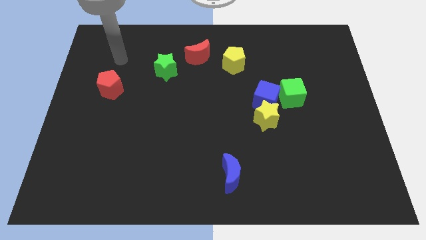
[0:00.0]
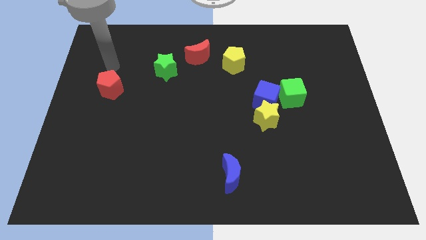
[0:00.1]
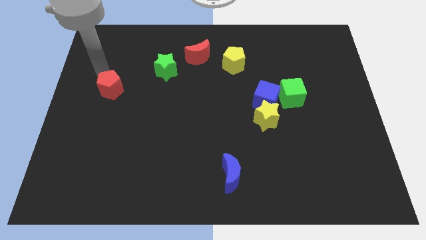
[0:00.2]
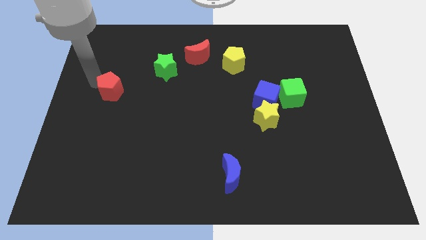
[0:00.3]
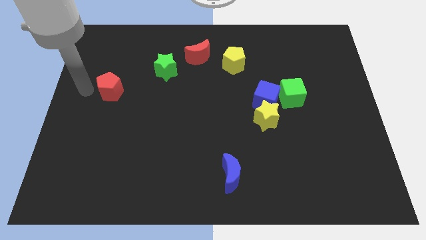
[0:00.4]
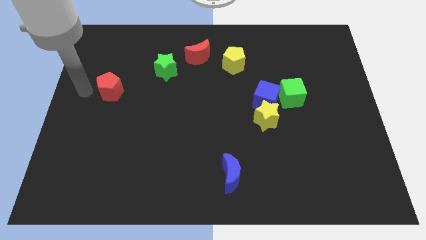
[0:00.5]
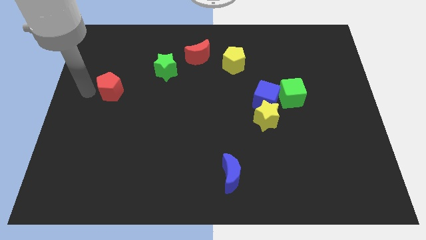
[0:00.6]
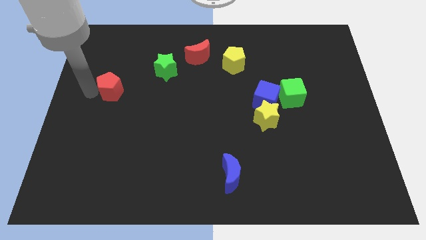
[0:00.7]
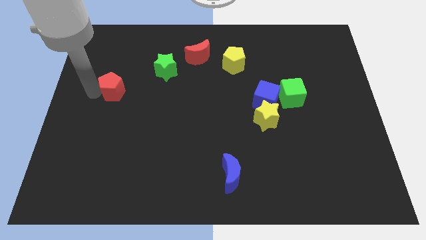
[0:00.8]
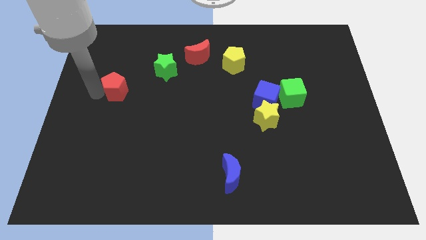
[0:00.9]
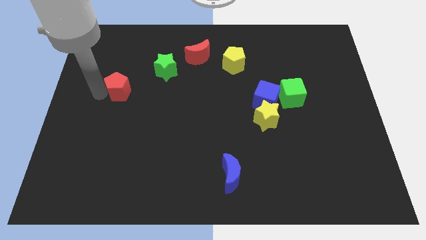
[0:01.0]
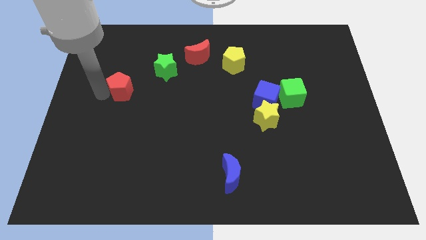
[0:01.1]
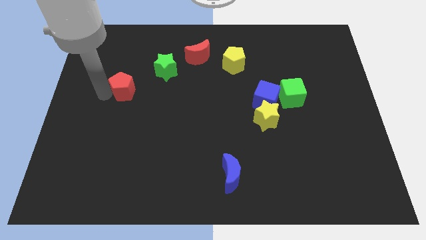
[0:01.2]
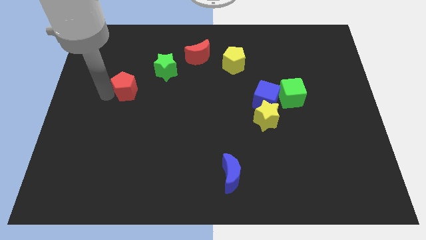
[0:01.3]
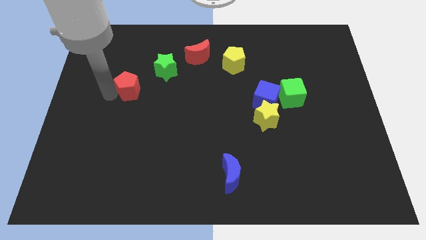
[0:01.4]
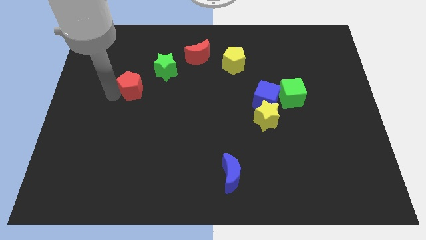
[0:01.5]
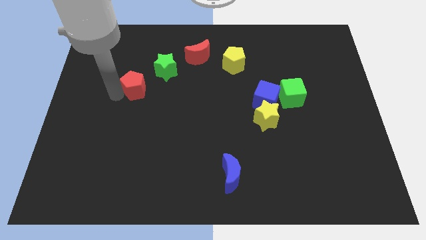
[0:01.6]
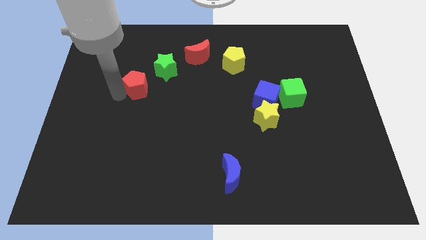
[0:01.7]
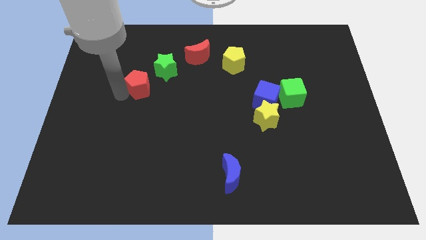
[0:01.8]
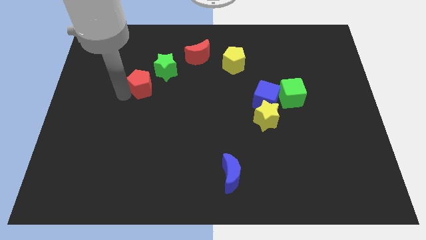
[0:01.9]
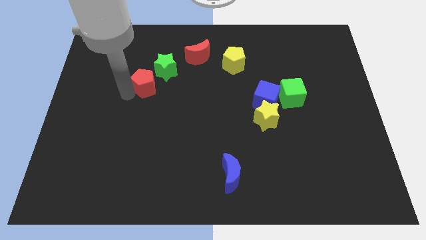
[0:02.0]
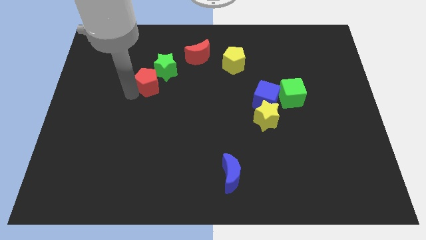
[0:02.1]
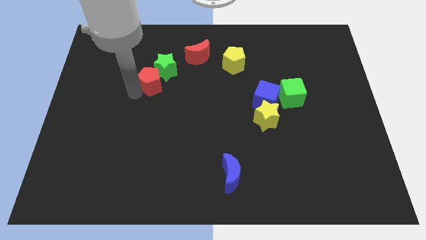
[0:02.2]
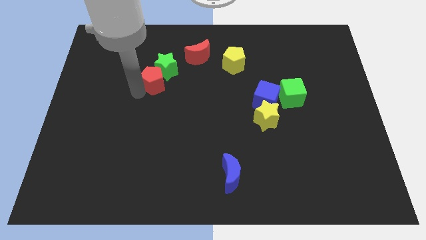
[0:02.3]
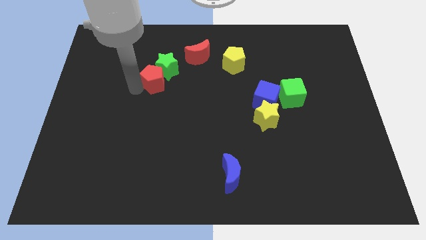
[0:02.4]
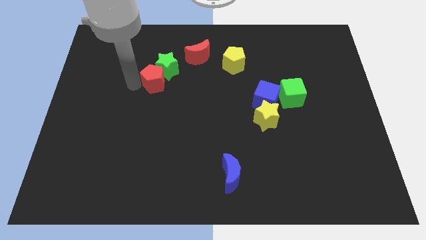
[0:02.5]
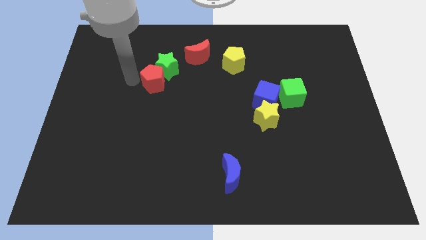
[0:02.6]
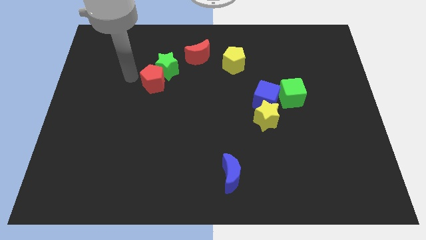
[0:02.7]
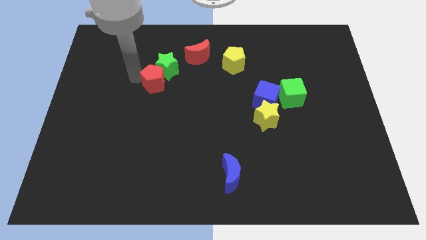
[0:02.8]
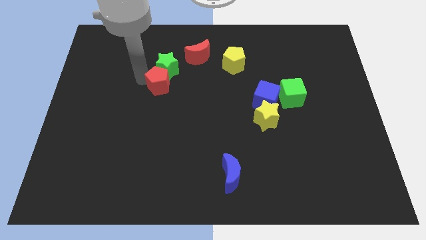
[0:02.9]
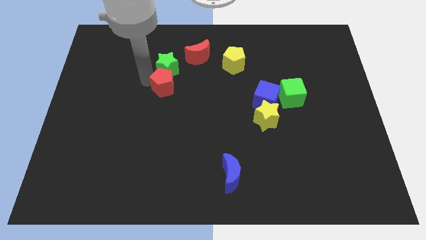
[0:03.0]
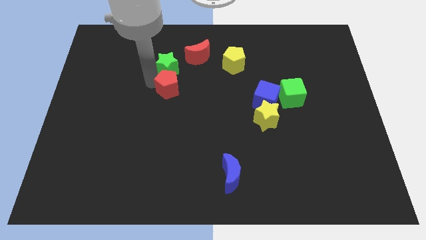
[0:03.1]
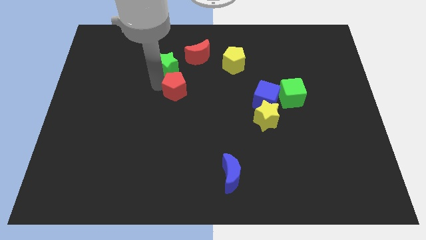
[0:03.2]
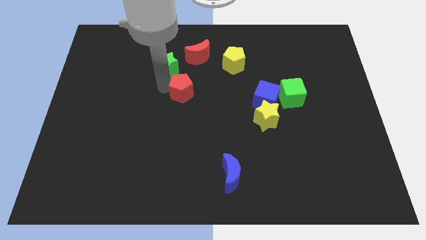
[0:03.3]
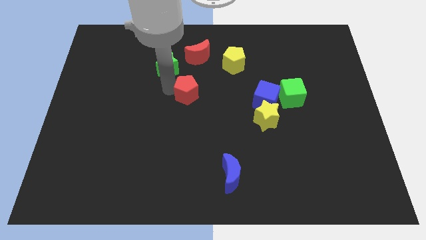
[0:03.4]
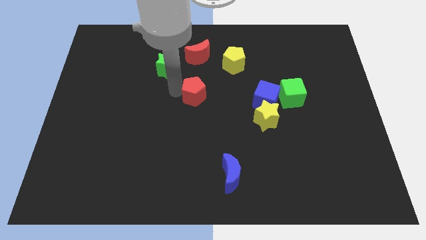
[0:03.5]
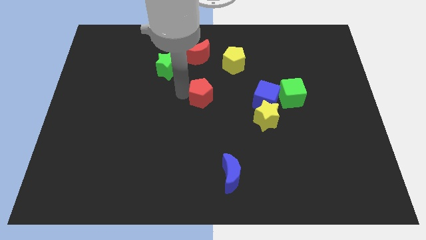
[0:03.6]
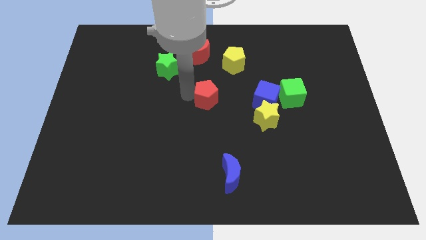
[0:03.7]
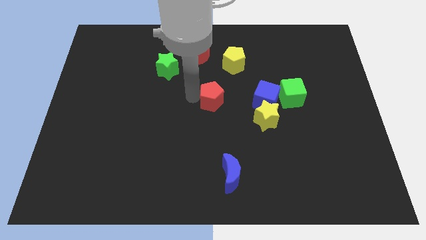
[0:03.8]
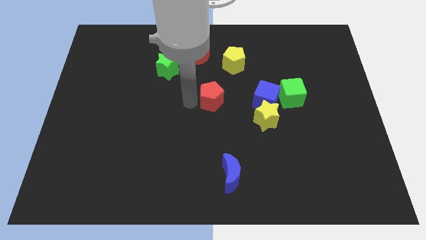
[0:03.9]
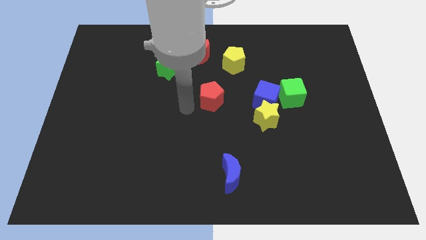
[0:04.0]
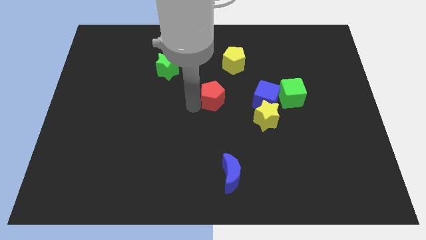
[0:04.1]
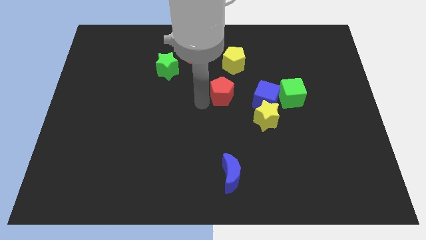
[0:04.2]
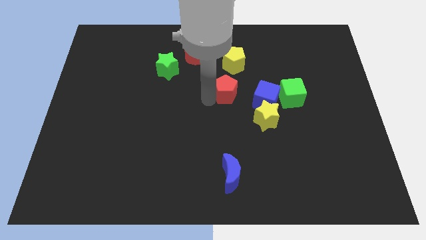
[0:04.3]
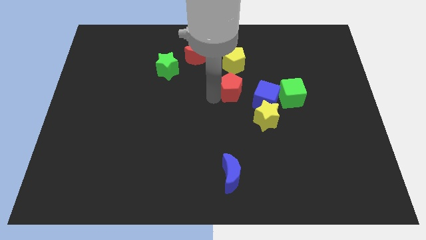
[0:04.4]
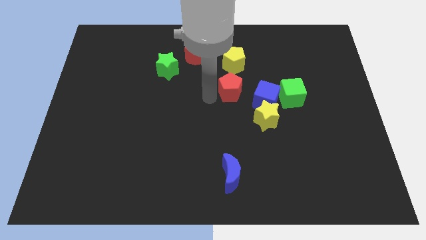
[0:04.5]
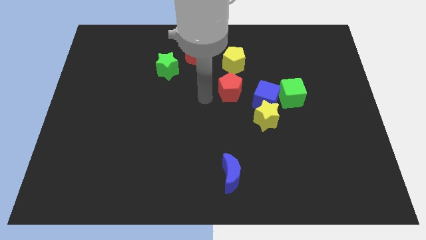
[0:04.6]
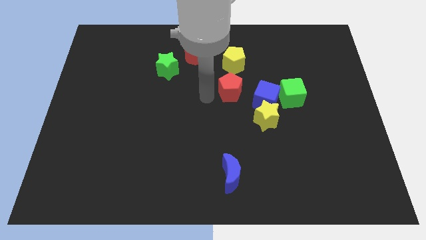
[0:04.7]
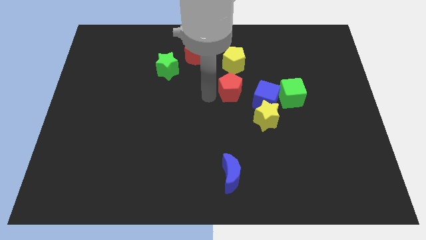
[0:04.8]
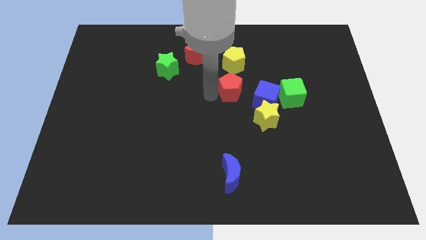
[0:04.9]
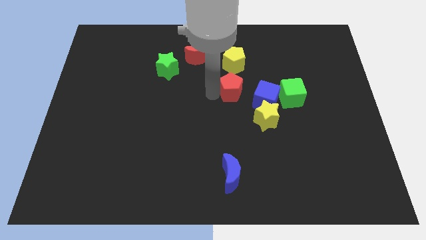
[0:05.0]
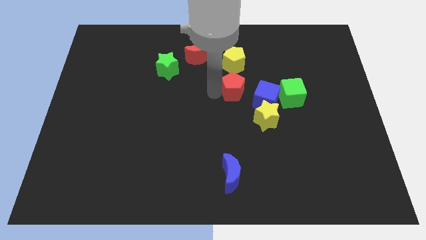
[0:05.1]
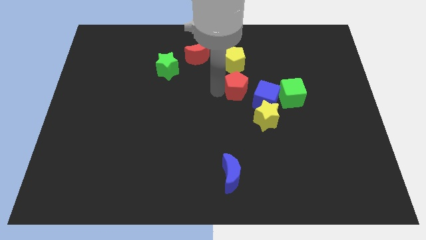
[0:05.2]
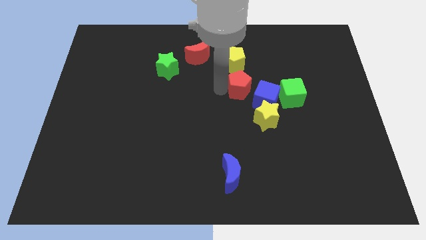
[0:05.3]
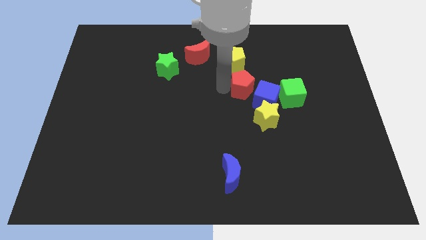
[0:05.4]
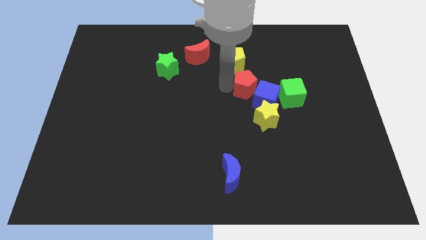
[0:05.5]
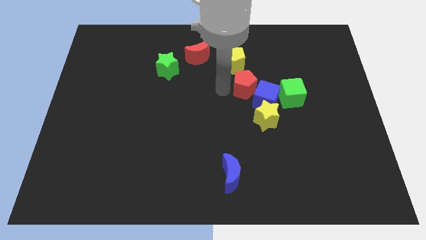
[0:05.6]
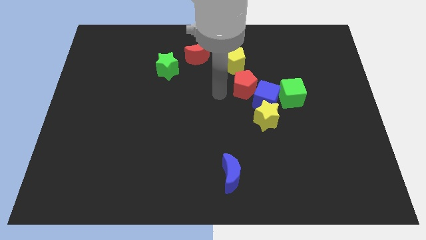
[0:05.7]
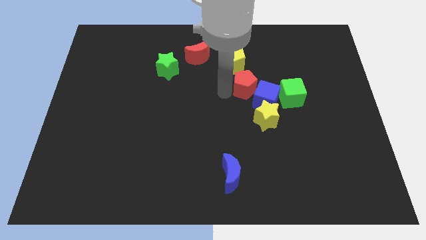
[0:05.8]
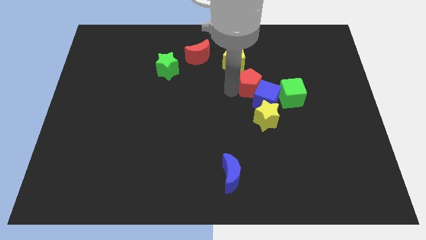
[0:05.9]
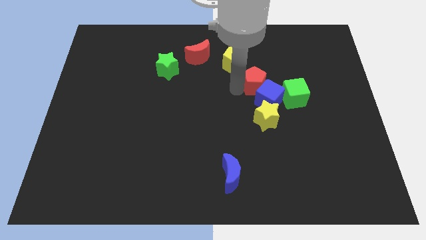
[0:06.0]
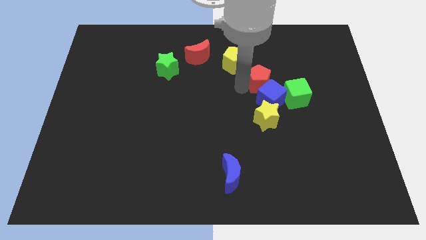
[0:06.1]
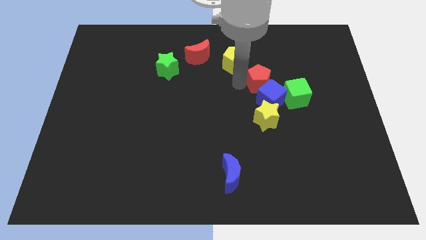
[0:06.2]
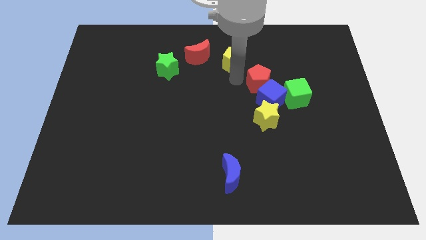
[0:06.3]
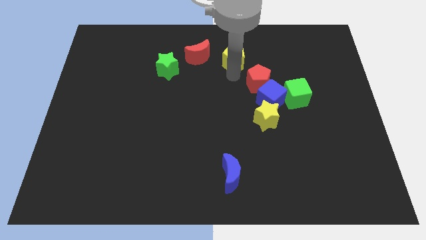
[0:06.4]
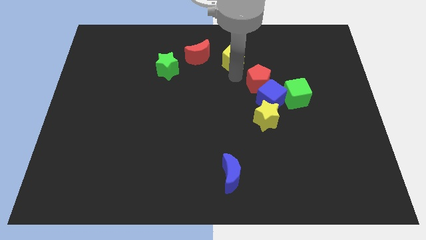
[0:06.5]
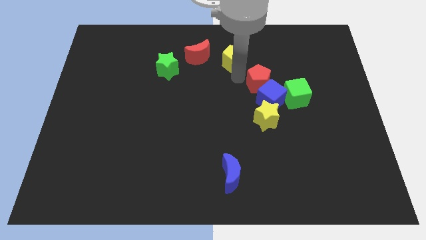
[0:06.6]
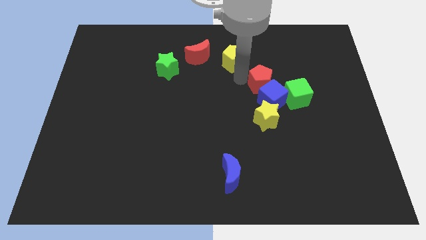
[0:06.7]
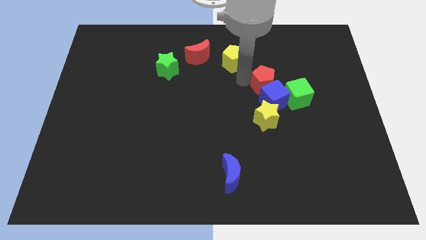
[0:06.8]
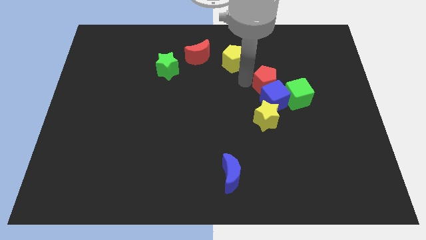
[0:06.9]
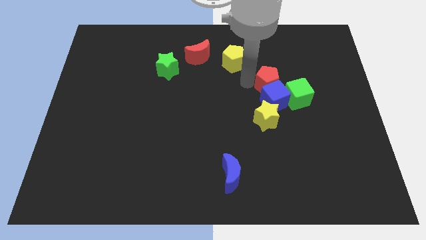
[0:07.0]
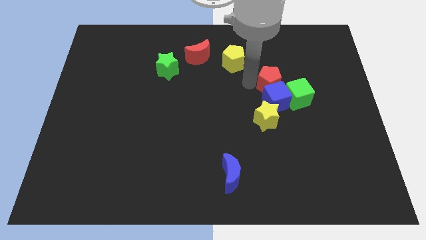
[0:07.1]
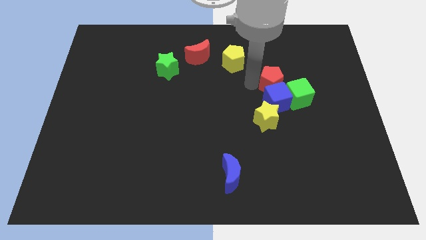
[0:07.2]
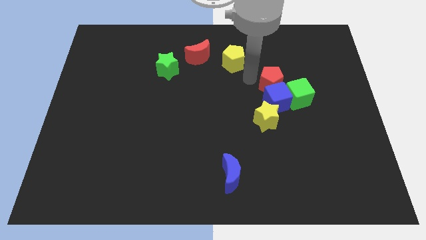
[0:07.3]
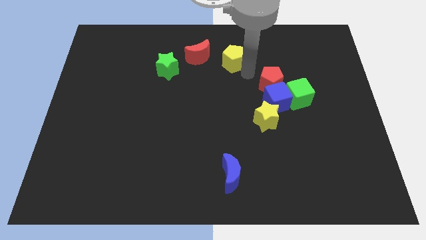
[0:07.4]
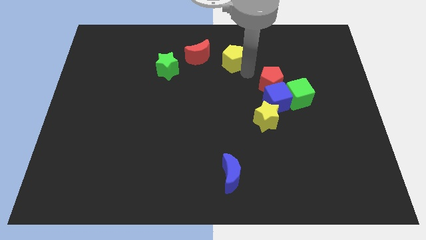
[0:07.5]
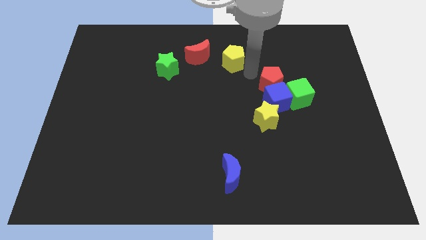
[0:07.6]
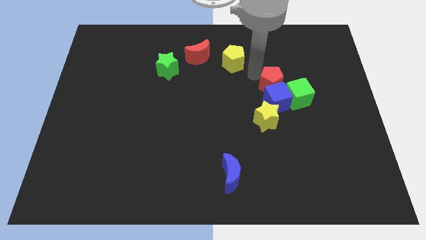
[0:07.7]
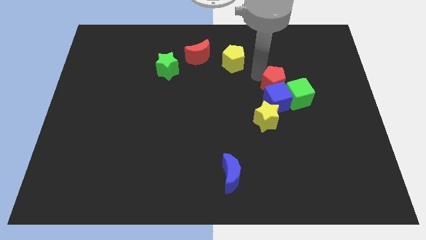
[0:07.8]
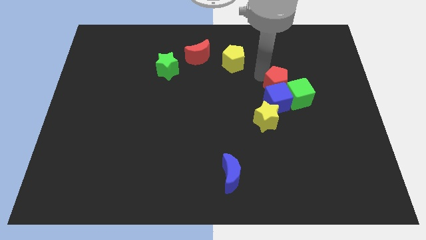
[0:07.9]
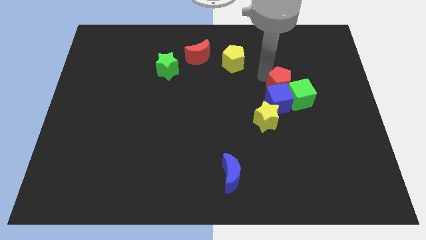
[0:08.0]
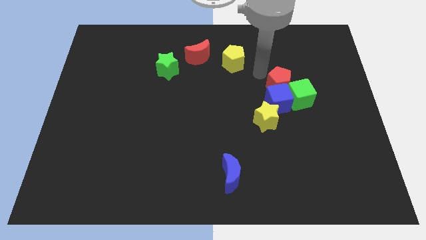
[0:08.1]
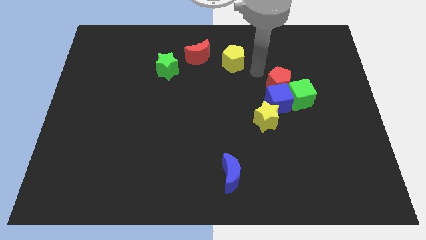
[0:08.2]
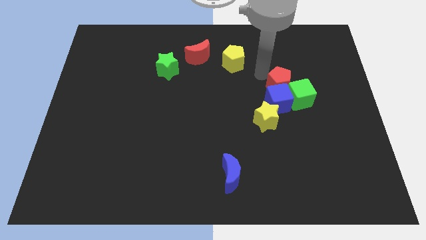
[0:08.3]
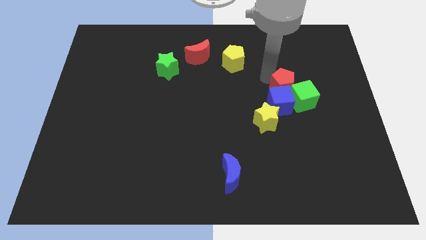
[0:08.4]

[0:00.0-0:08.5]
move the red pentagon close to the green cube
